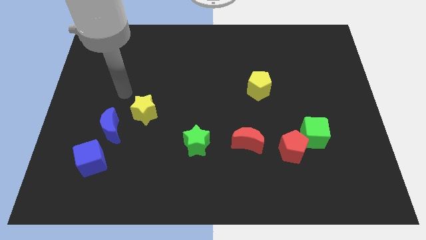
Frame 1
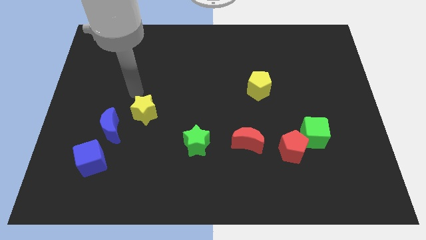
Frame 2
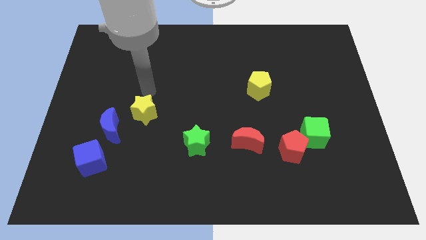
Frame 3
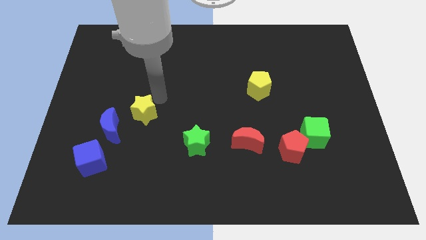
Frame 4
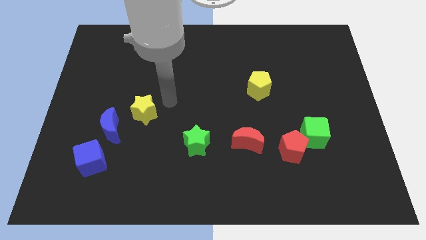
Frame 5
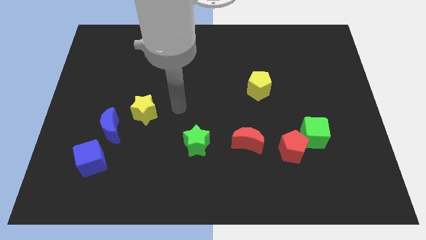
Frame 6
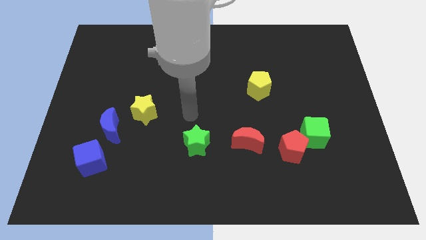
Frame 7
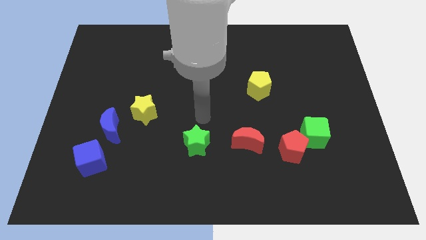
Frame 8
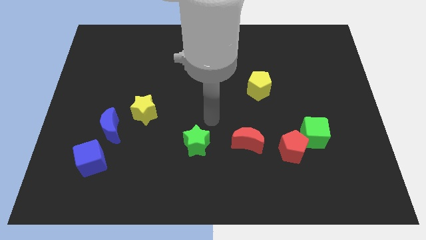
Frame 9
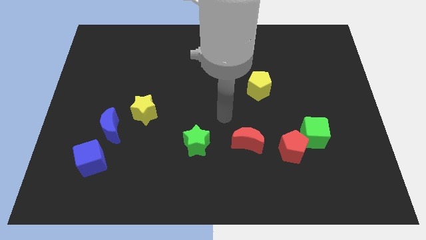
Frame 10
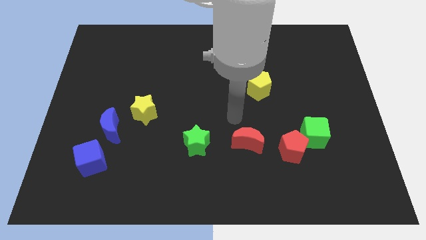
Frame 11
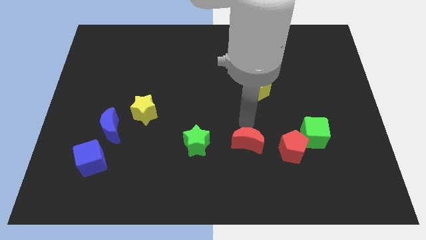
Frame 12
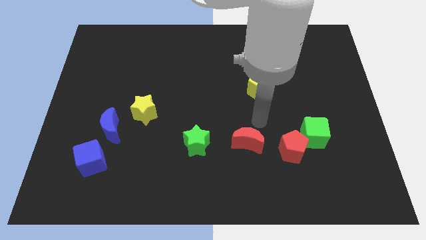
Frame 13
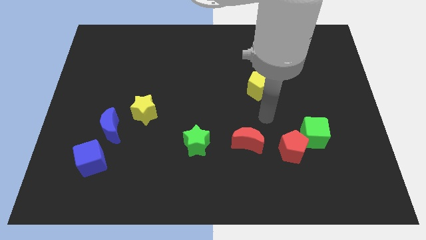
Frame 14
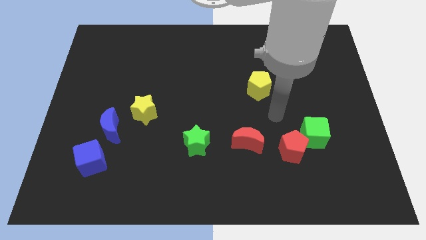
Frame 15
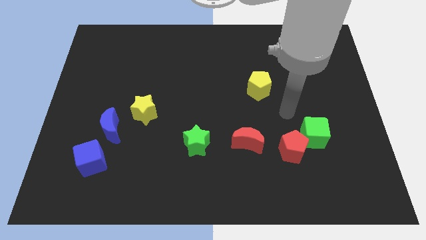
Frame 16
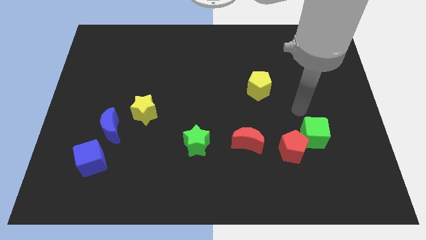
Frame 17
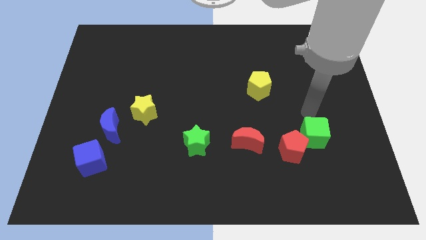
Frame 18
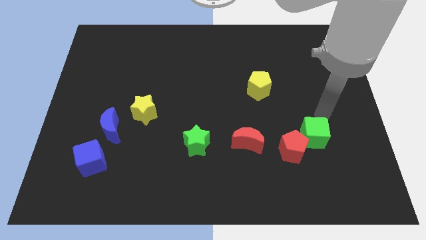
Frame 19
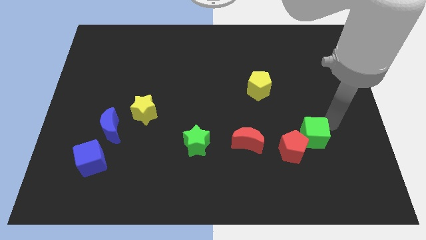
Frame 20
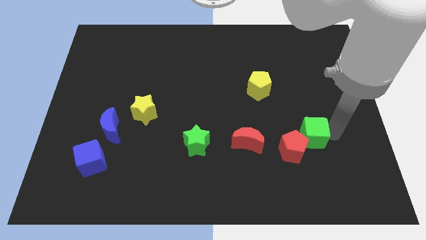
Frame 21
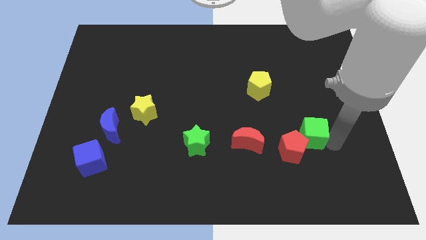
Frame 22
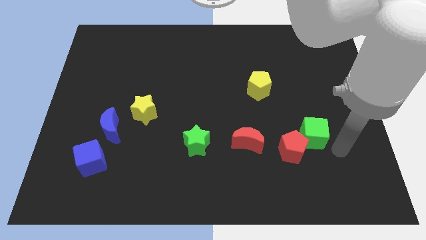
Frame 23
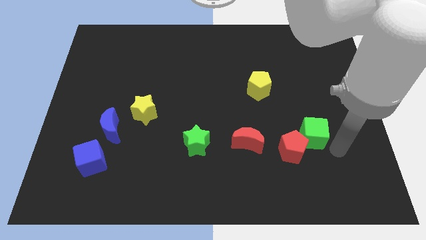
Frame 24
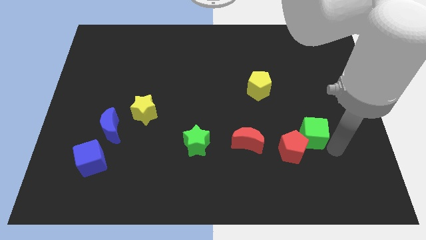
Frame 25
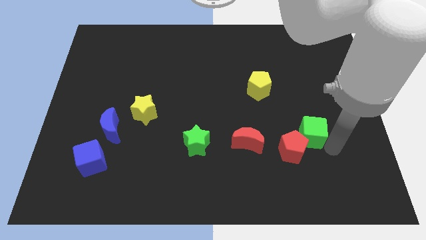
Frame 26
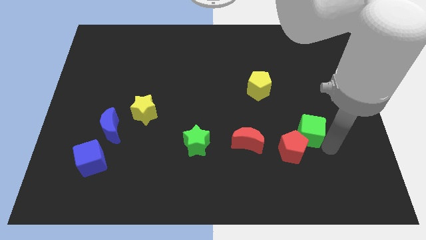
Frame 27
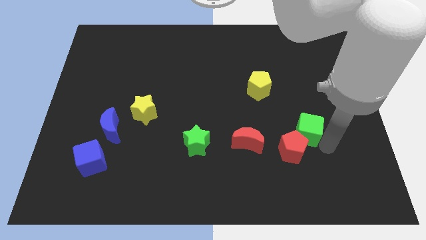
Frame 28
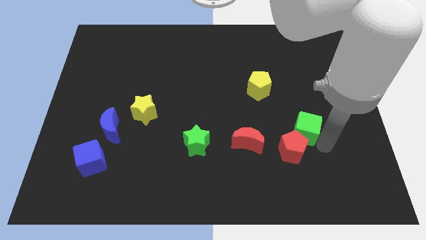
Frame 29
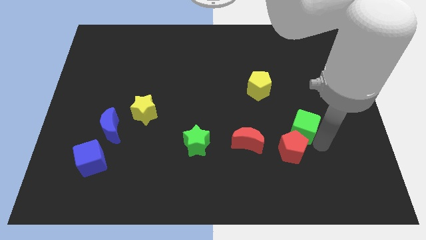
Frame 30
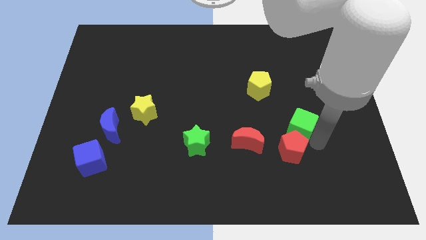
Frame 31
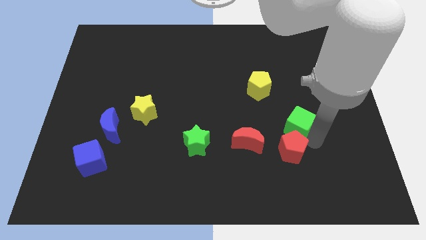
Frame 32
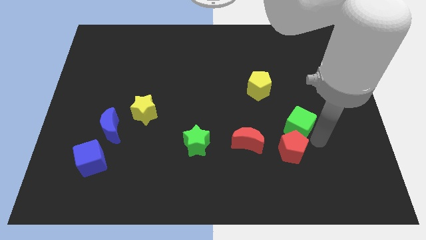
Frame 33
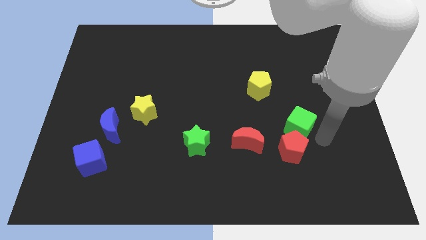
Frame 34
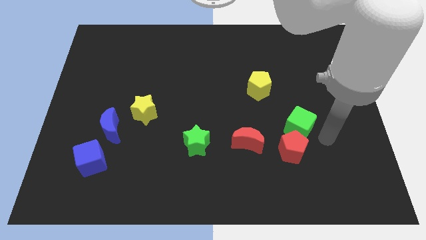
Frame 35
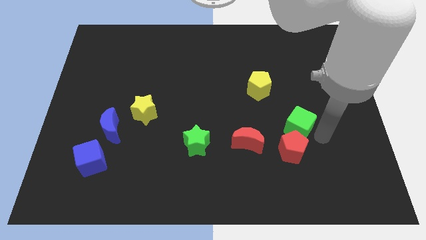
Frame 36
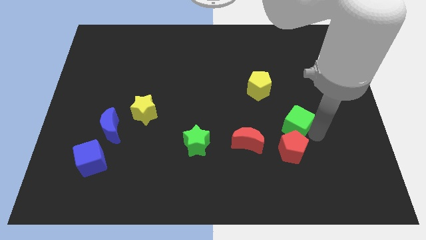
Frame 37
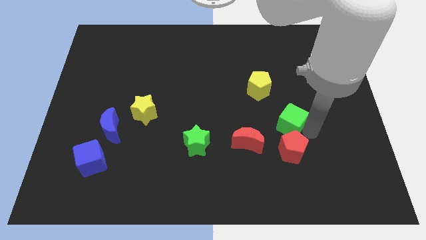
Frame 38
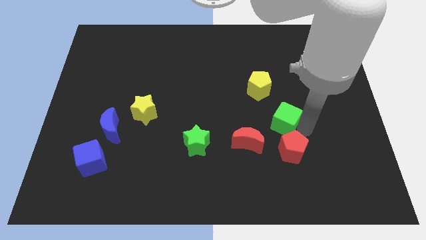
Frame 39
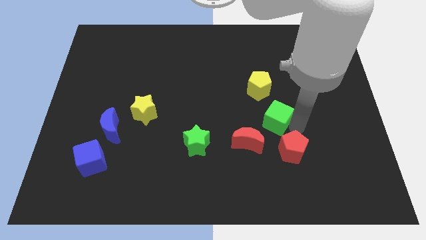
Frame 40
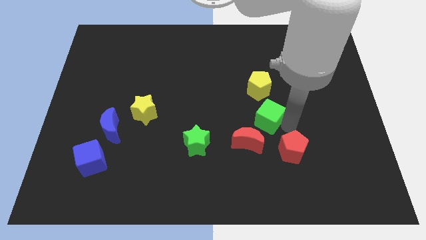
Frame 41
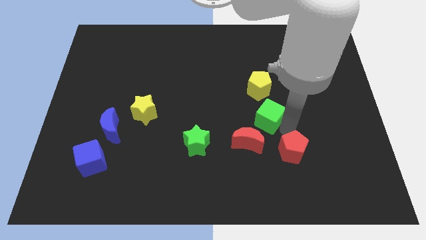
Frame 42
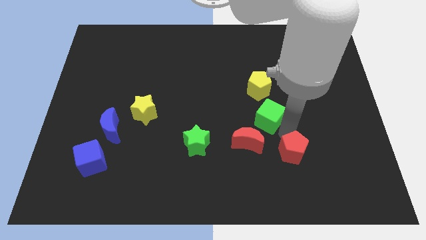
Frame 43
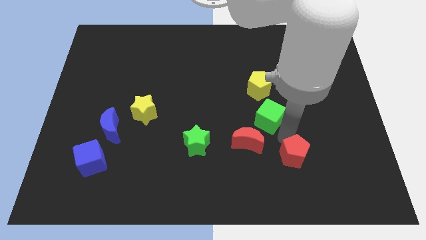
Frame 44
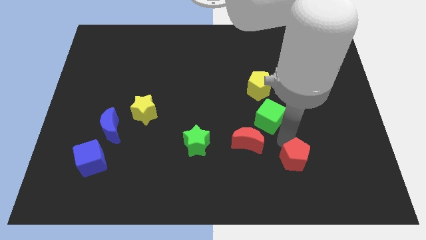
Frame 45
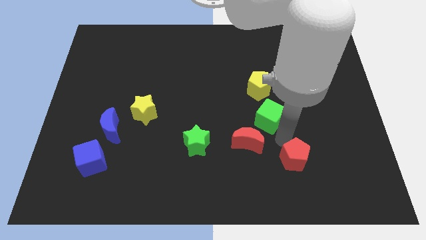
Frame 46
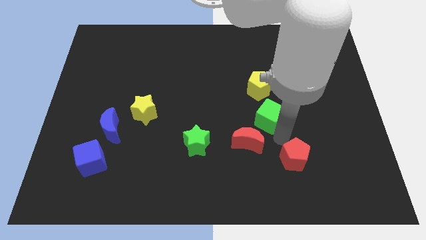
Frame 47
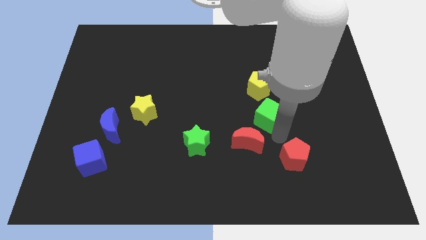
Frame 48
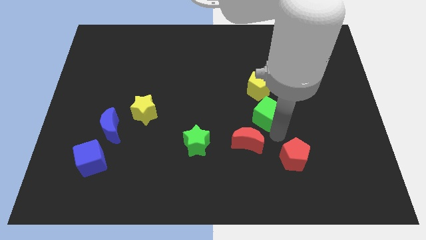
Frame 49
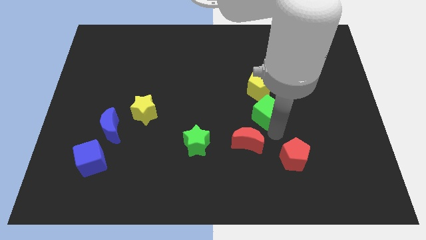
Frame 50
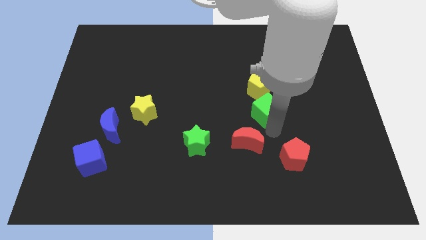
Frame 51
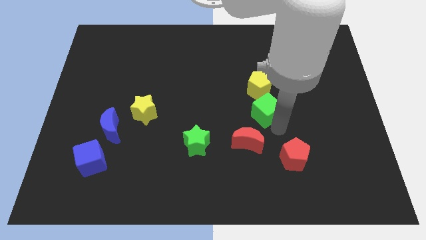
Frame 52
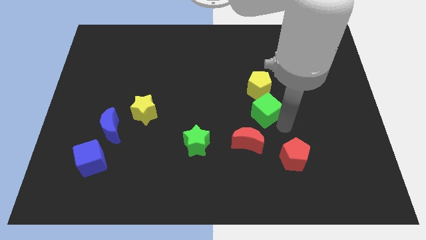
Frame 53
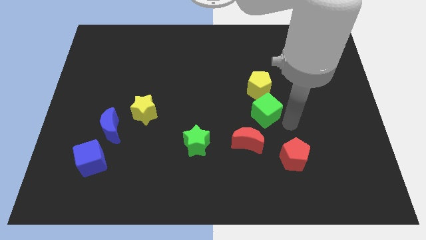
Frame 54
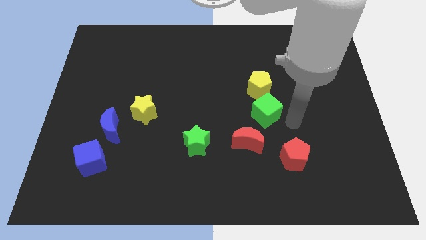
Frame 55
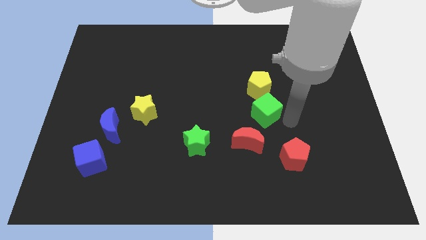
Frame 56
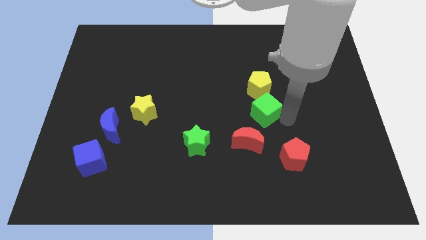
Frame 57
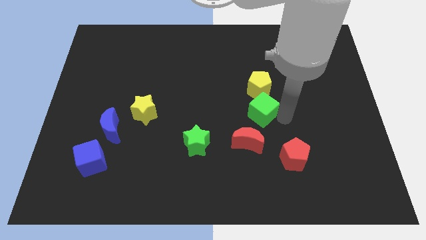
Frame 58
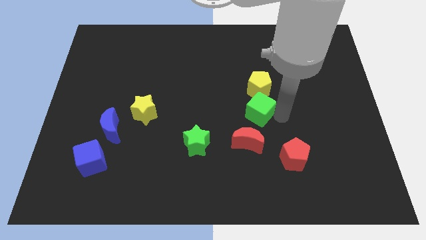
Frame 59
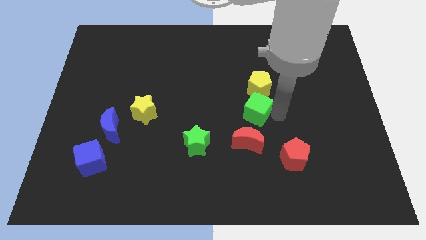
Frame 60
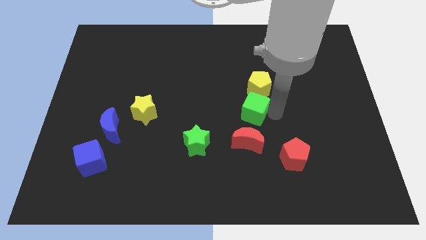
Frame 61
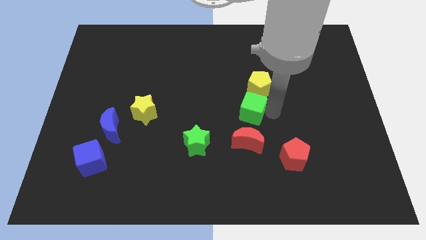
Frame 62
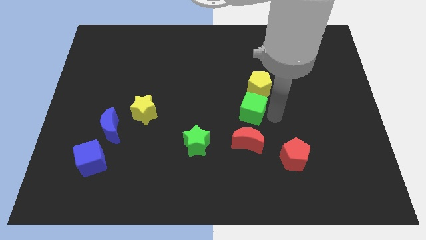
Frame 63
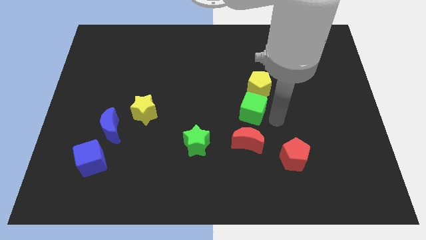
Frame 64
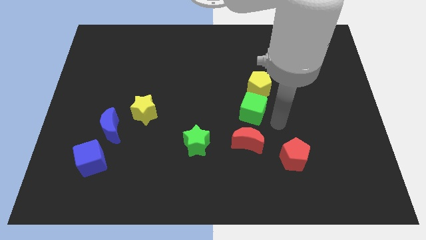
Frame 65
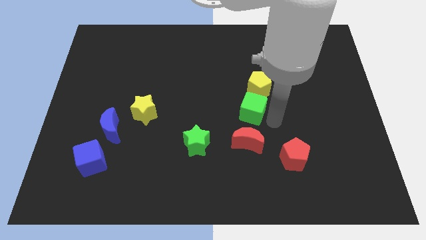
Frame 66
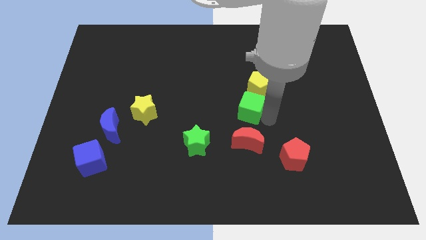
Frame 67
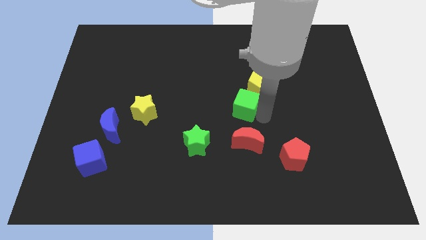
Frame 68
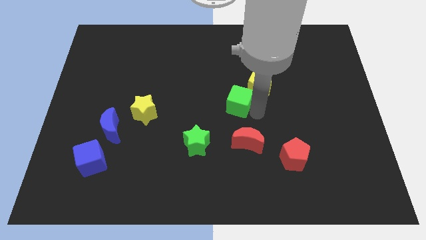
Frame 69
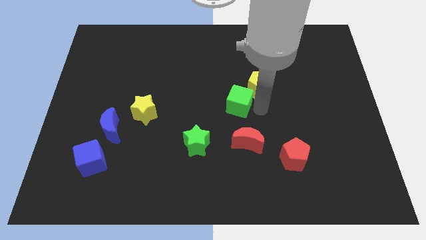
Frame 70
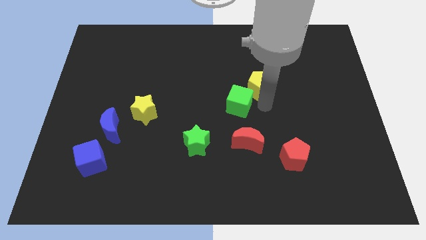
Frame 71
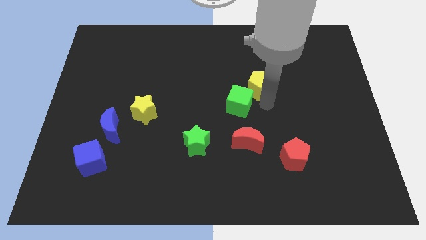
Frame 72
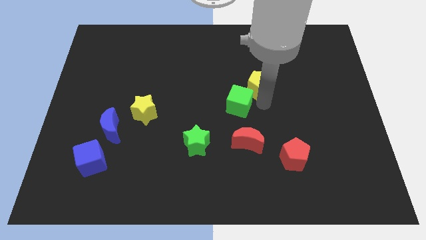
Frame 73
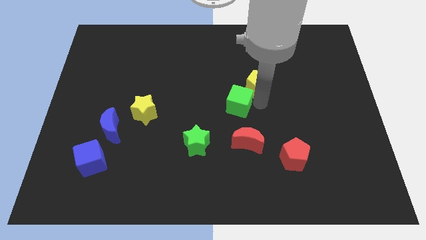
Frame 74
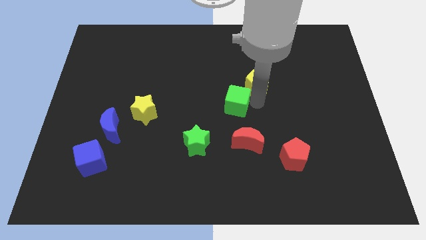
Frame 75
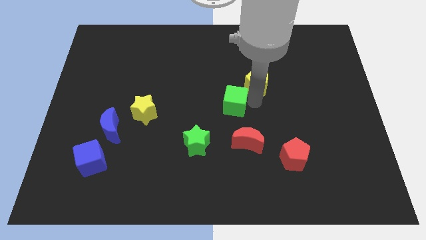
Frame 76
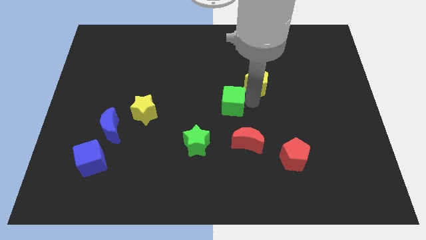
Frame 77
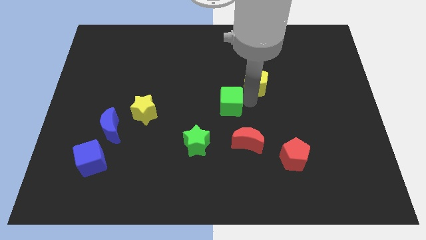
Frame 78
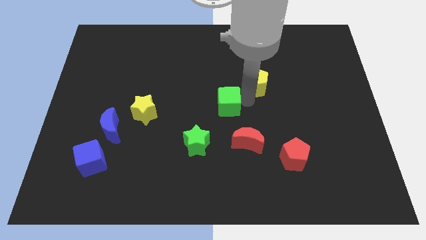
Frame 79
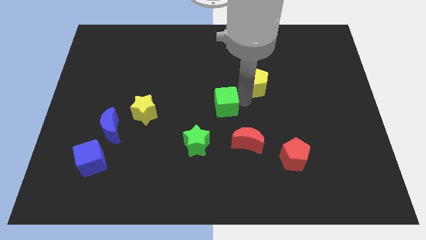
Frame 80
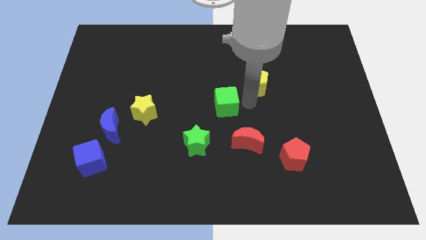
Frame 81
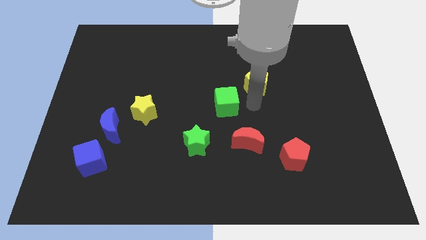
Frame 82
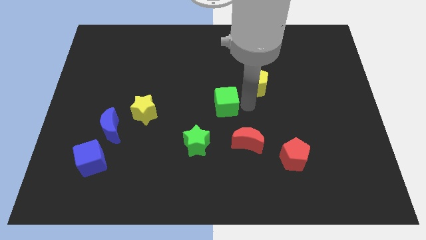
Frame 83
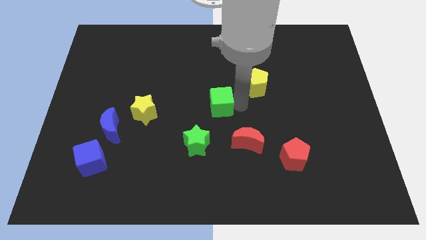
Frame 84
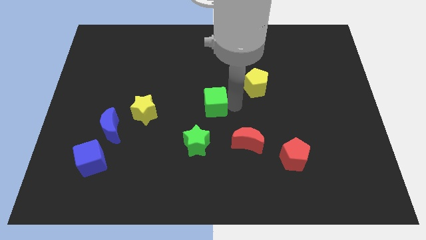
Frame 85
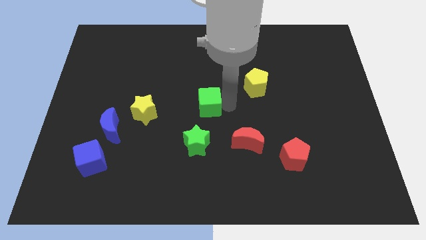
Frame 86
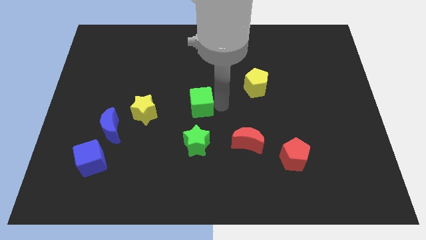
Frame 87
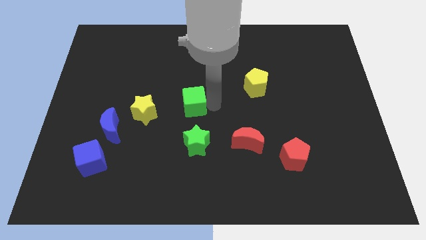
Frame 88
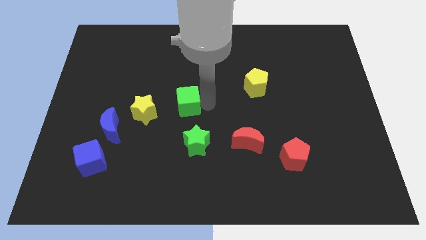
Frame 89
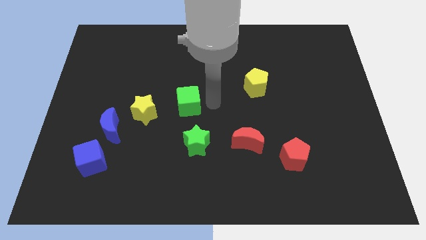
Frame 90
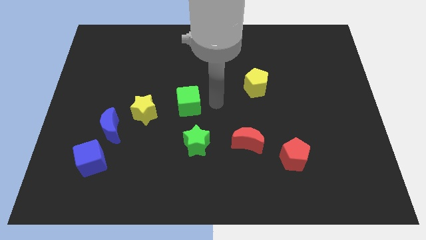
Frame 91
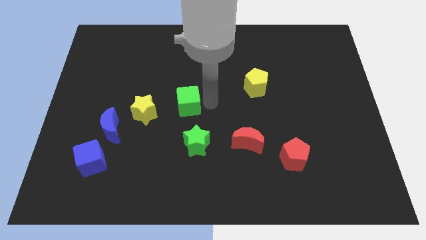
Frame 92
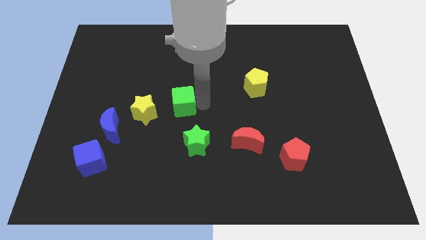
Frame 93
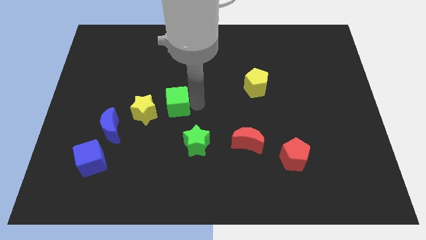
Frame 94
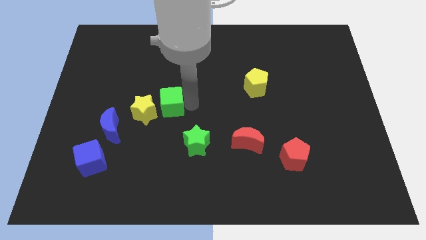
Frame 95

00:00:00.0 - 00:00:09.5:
move the green cube next to the yellow star
